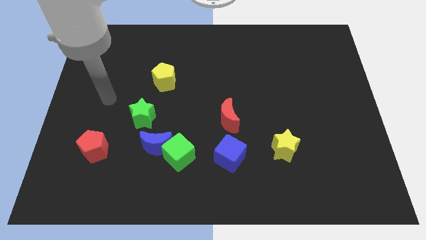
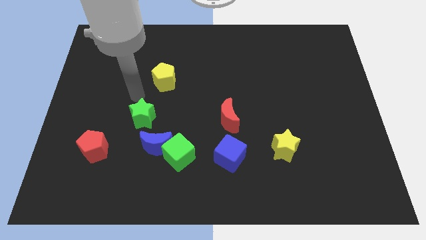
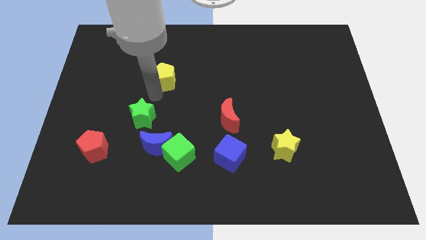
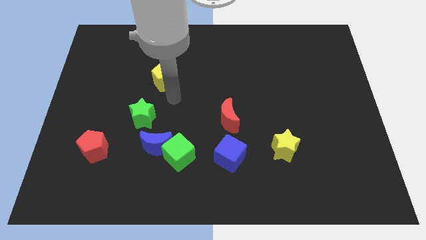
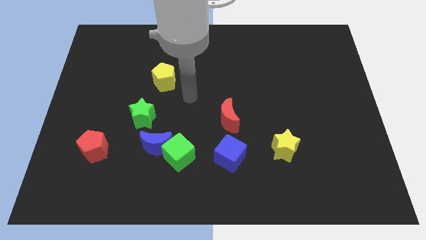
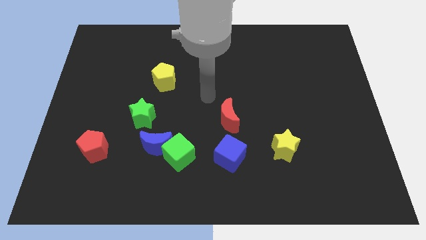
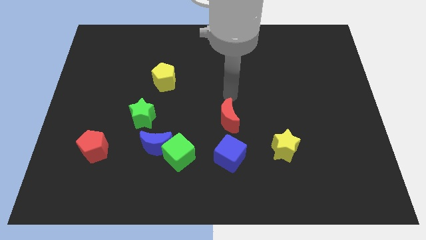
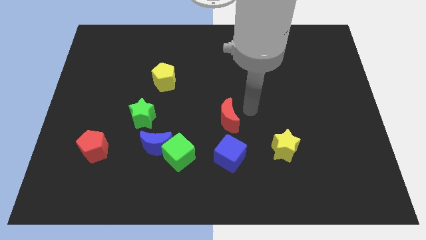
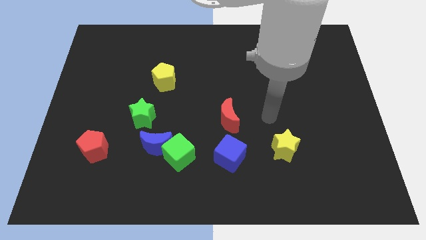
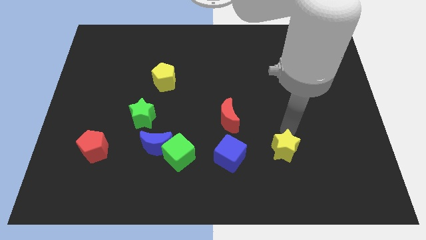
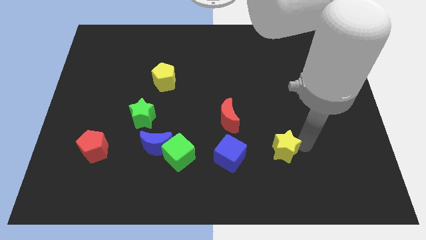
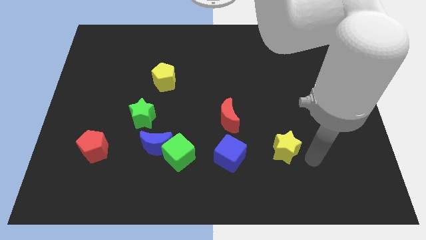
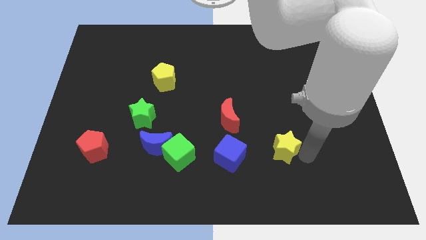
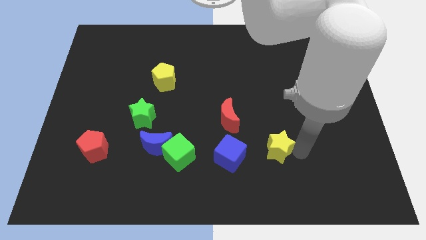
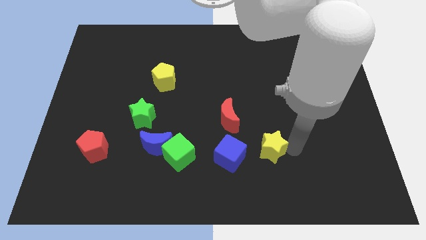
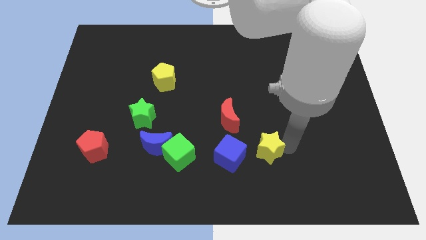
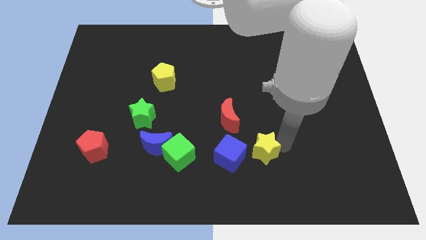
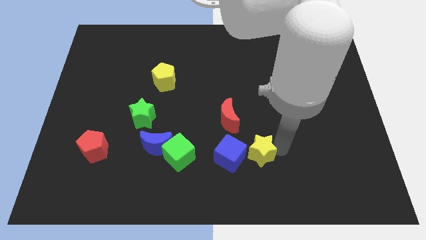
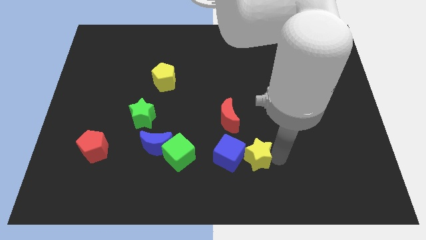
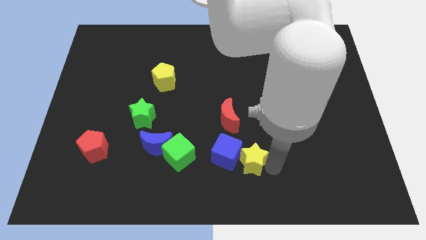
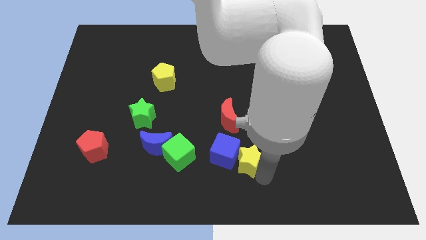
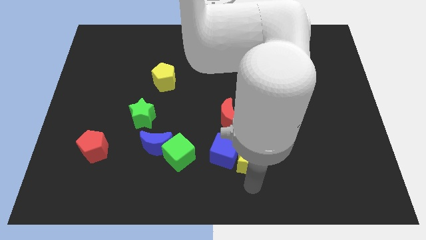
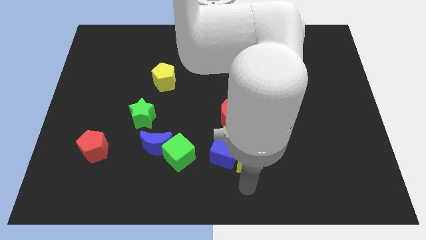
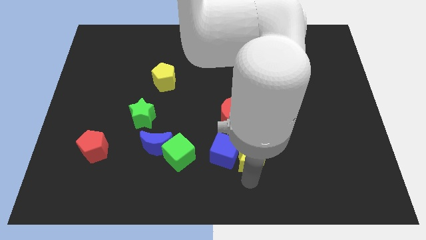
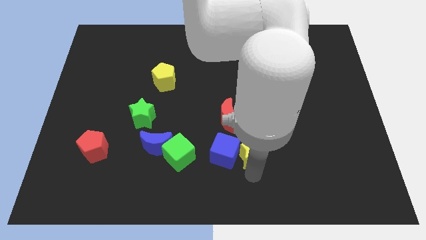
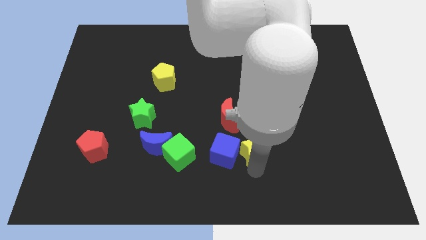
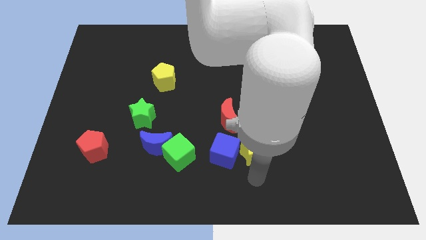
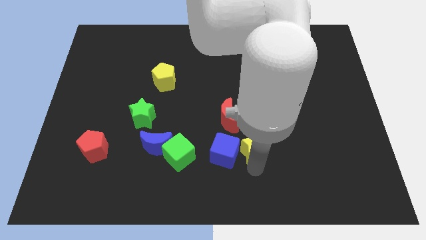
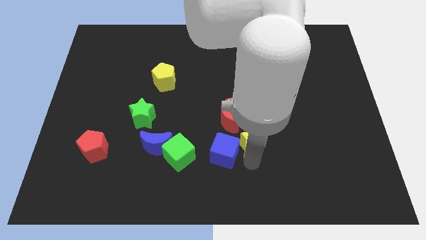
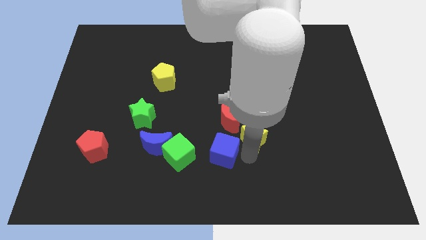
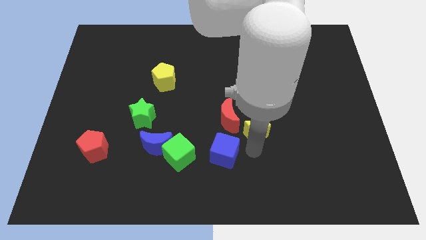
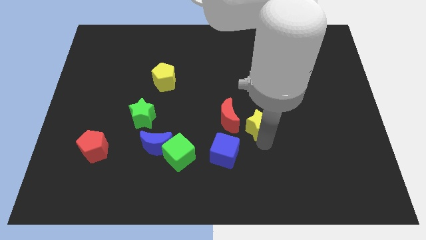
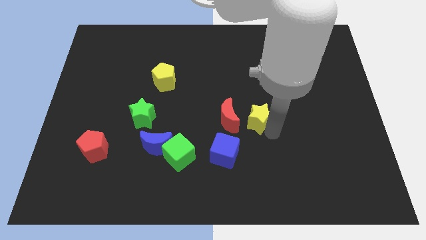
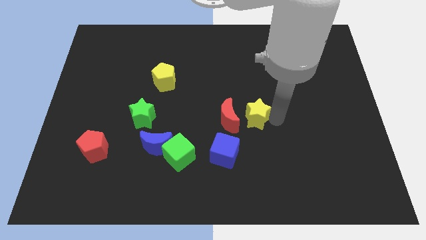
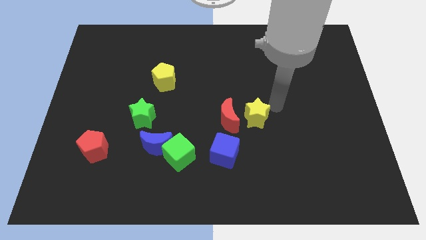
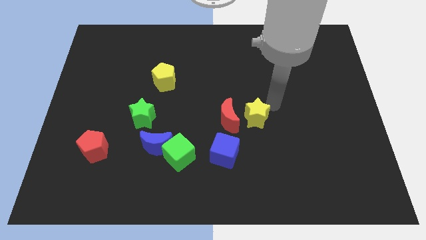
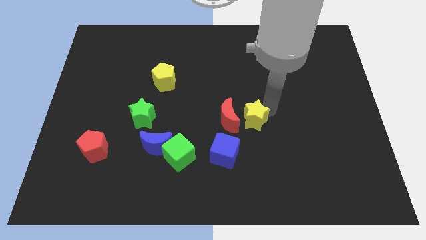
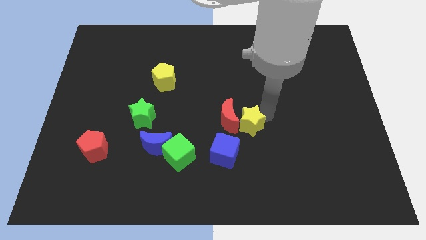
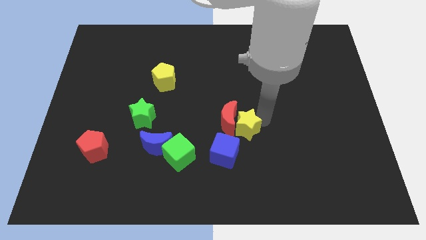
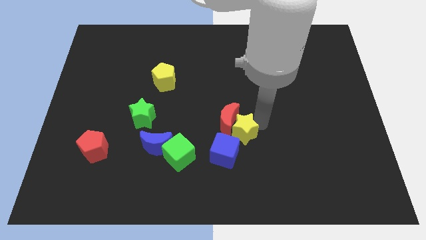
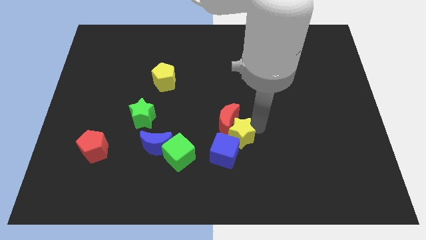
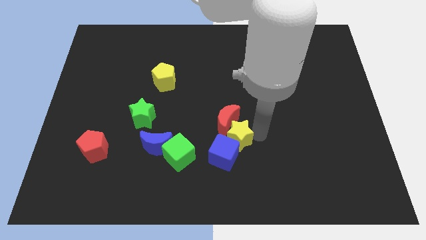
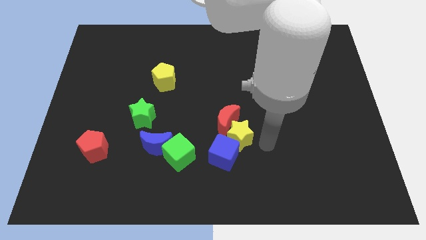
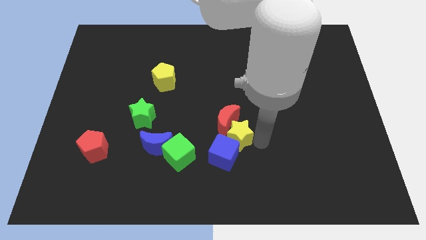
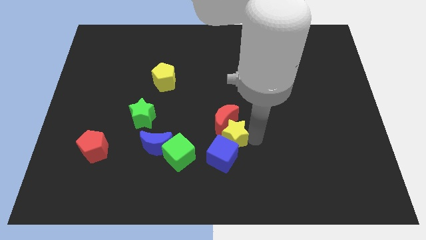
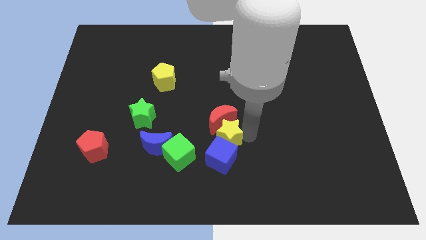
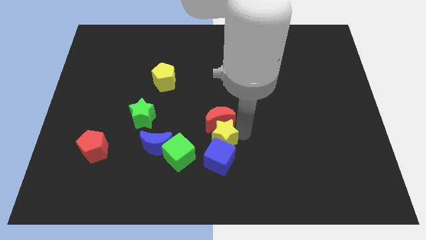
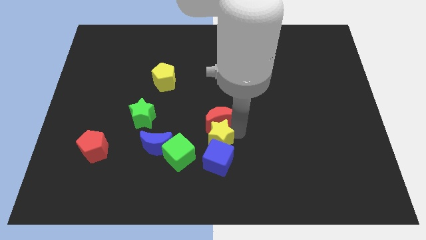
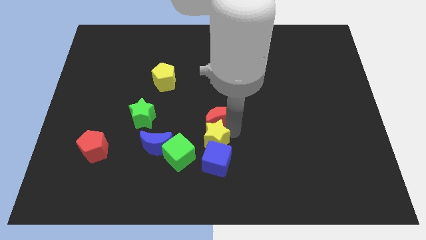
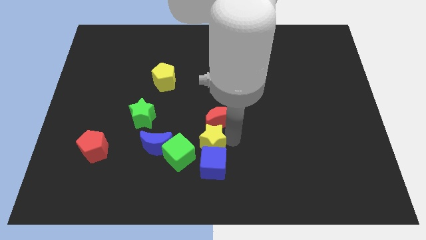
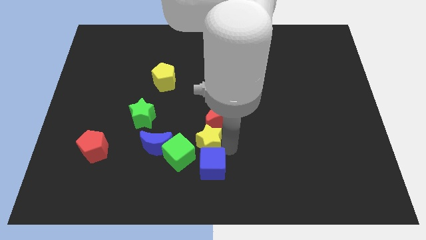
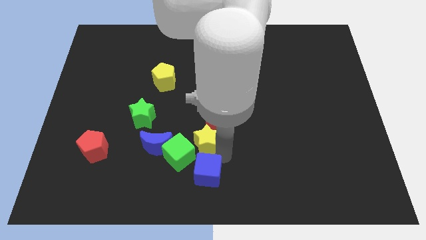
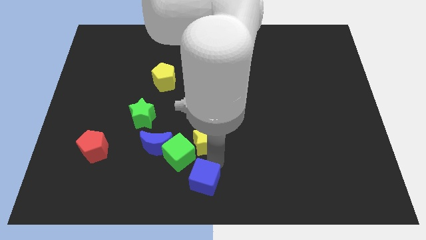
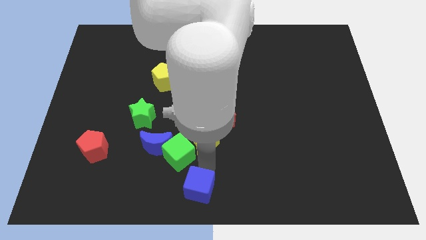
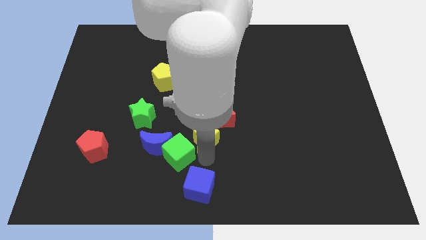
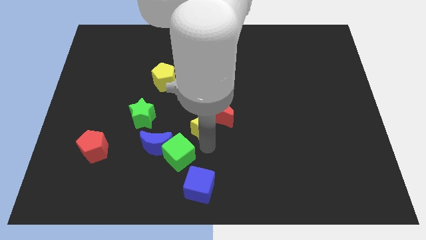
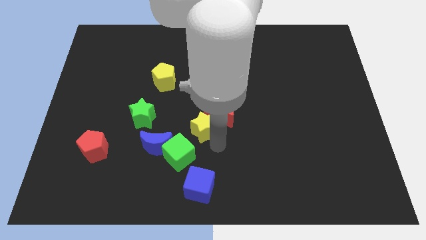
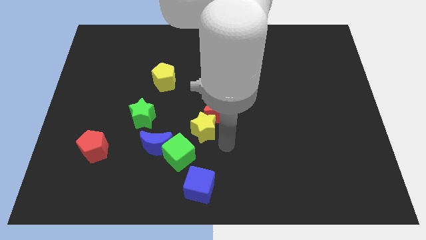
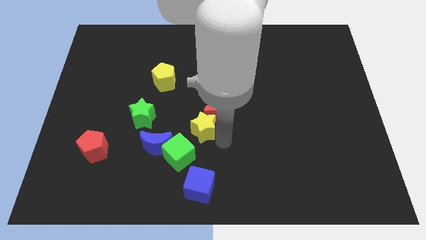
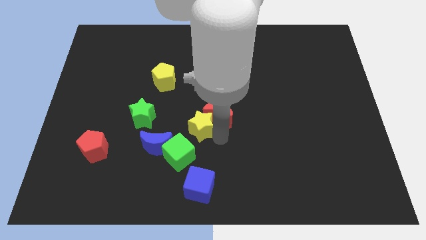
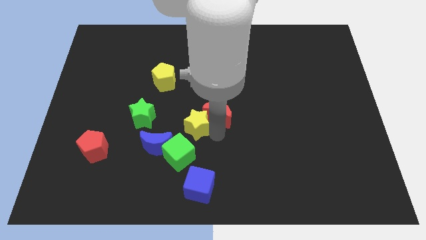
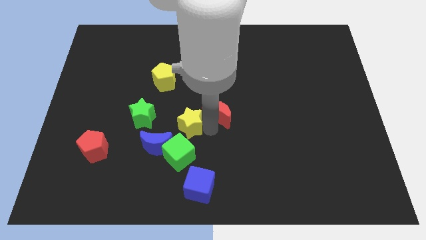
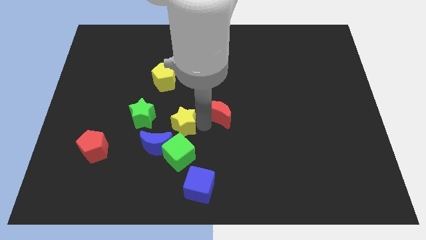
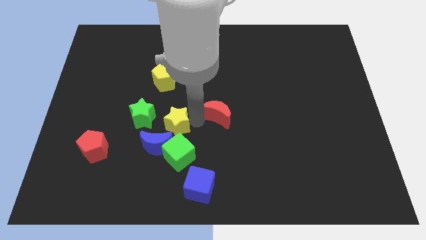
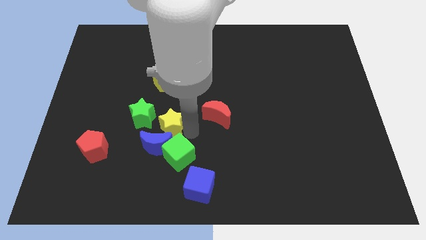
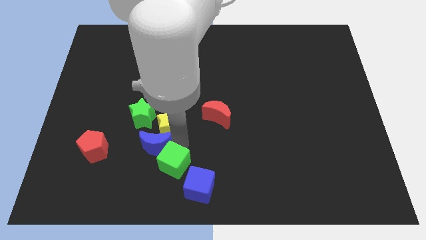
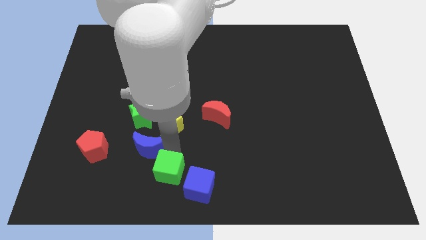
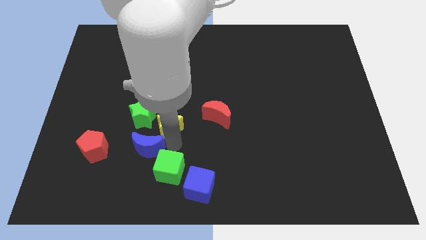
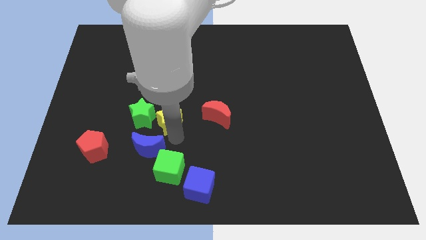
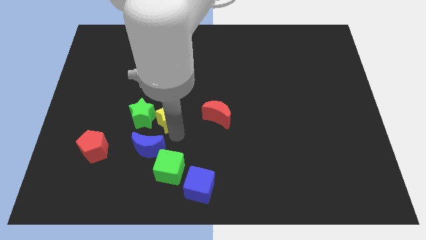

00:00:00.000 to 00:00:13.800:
push the yellow star to the top right of the green star

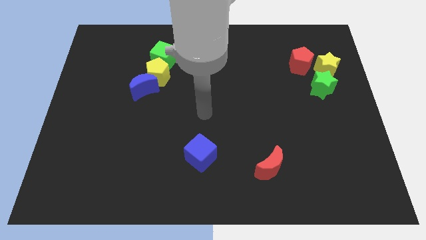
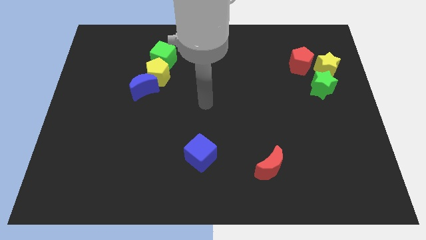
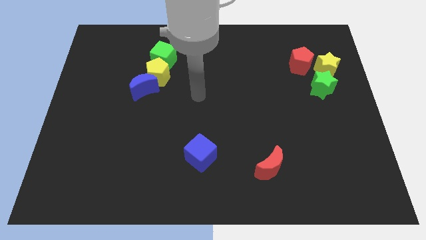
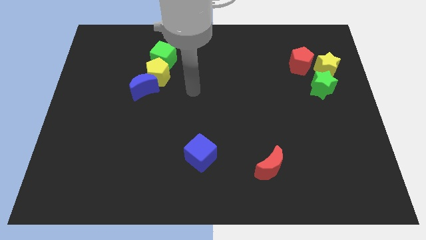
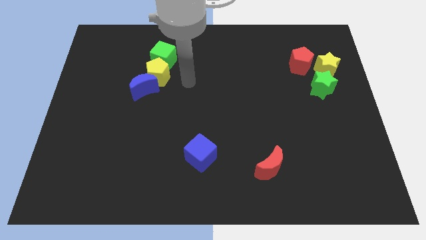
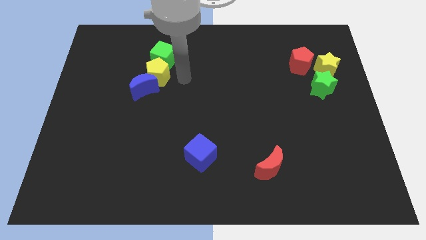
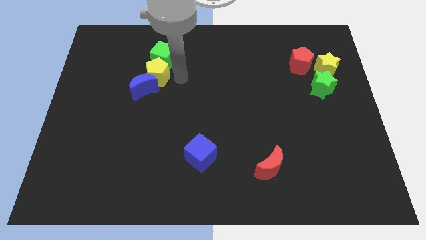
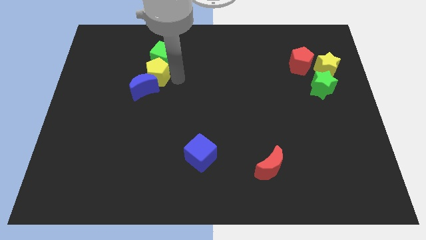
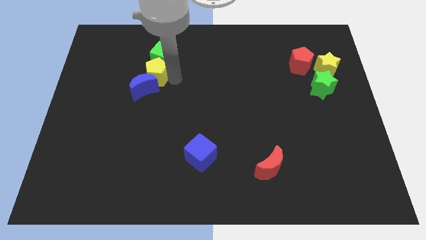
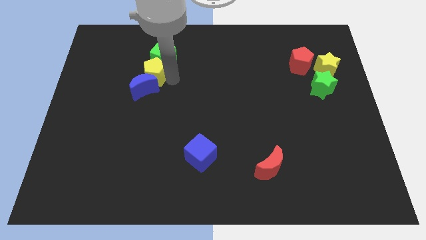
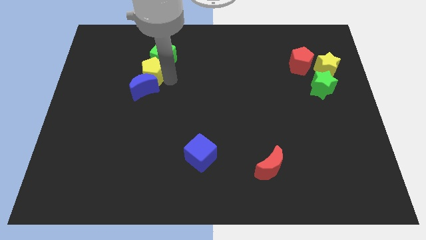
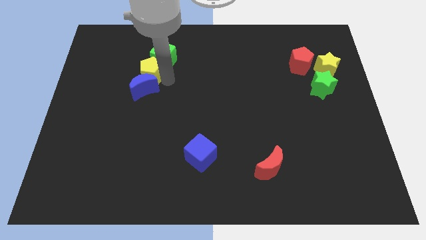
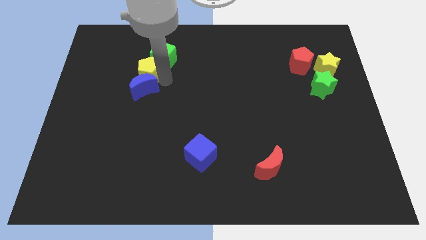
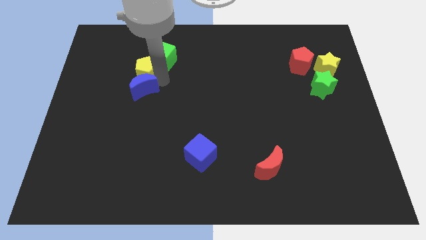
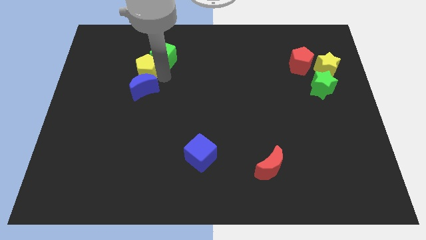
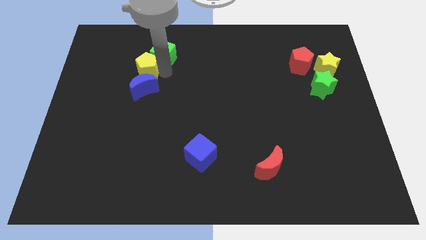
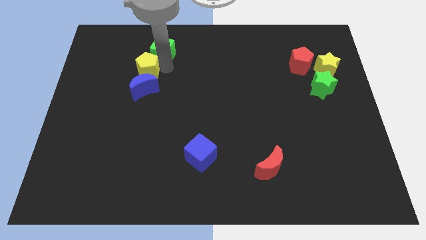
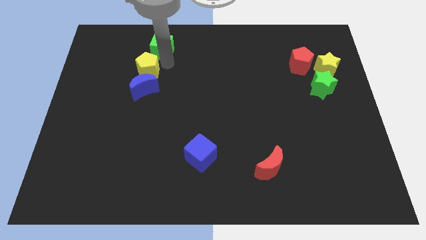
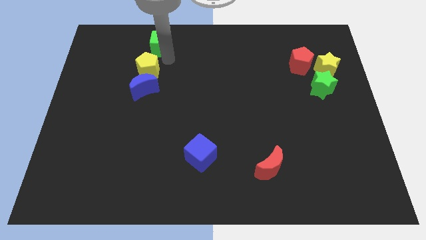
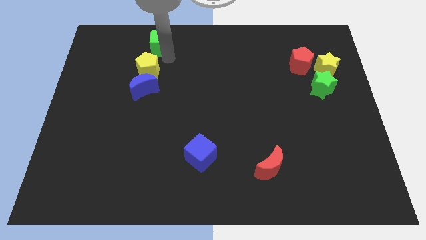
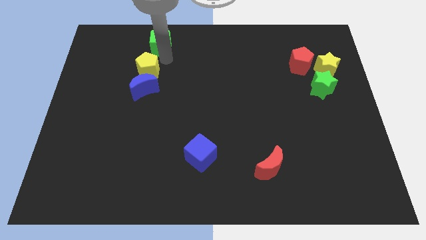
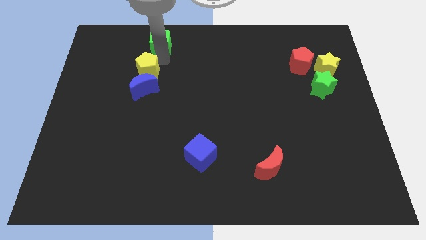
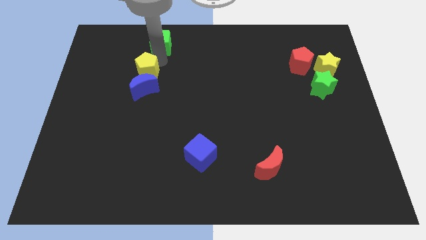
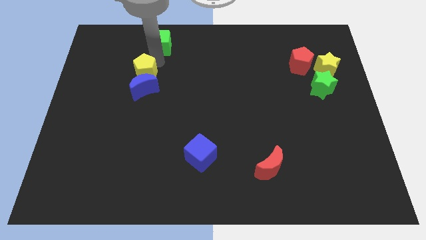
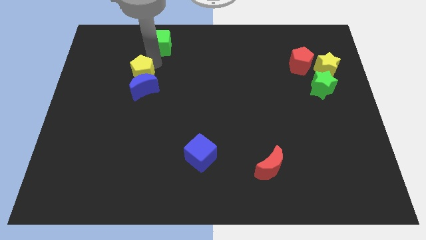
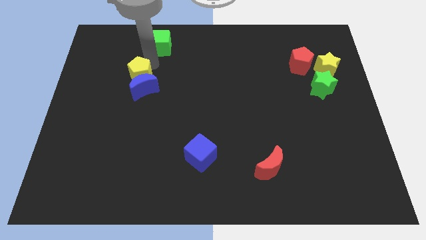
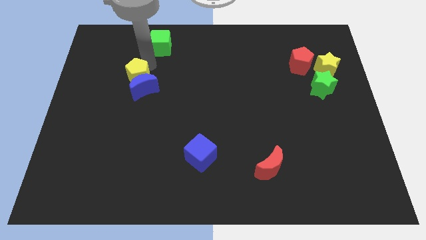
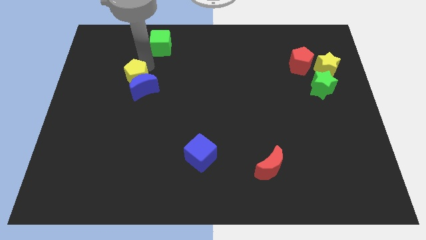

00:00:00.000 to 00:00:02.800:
slide the yellow pentagon left of the blue moon
